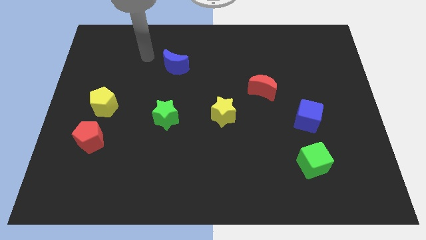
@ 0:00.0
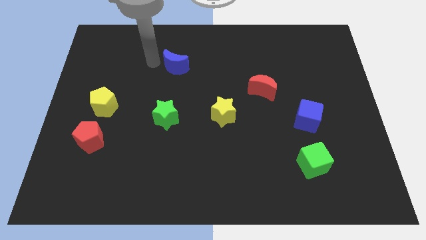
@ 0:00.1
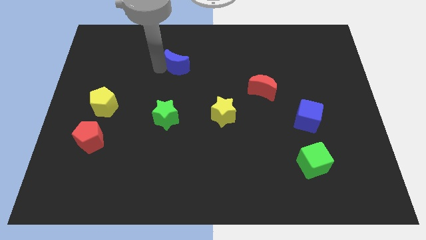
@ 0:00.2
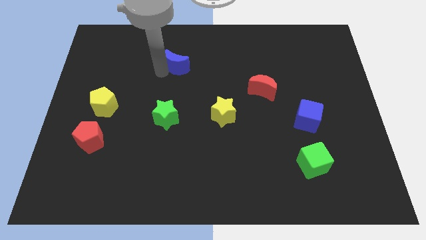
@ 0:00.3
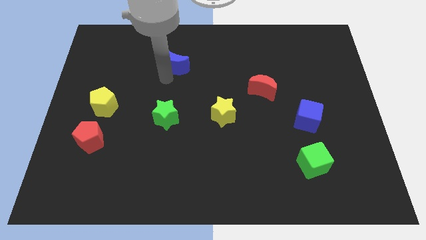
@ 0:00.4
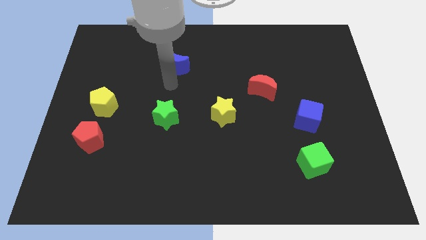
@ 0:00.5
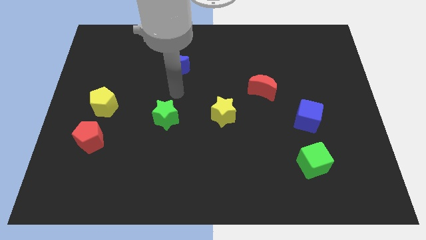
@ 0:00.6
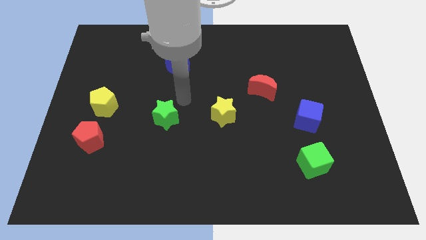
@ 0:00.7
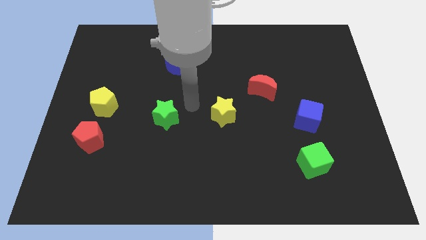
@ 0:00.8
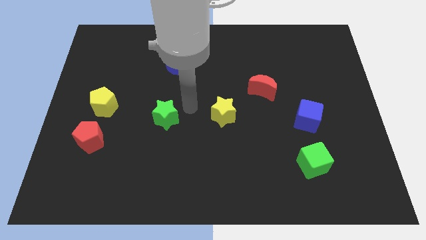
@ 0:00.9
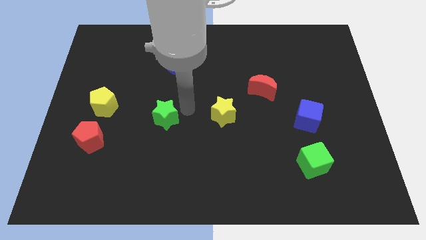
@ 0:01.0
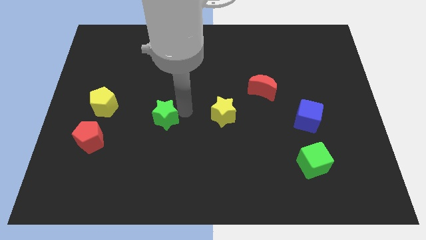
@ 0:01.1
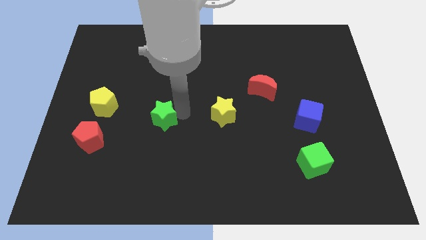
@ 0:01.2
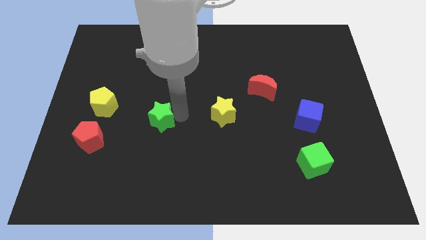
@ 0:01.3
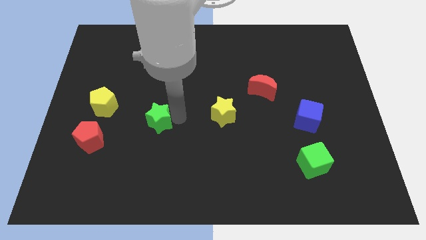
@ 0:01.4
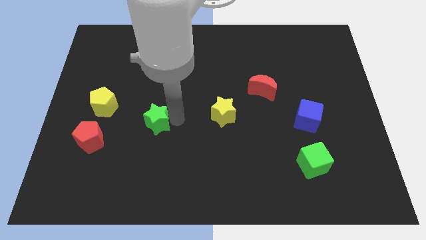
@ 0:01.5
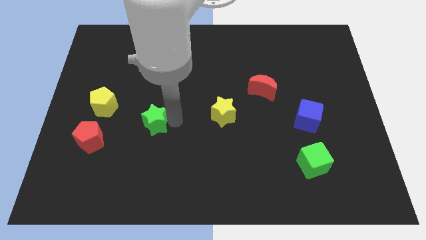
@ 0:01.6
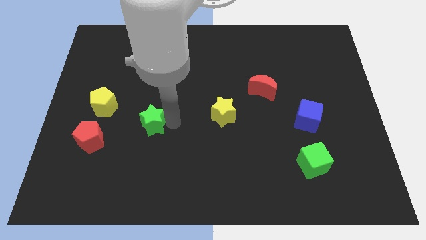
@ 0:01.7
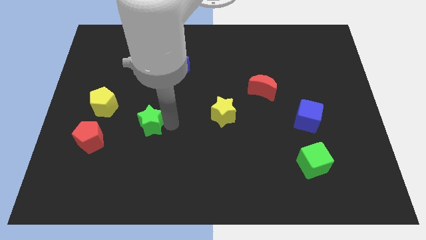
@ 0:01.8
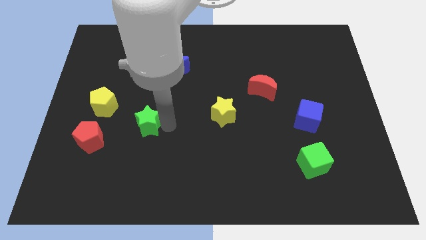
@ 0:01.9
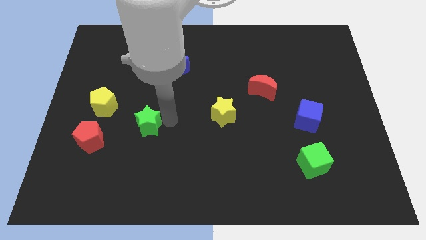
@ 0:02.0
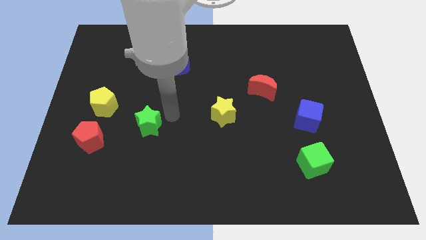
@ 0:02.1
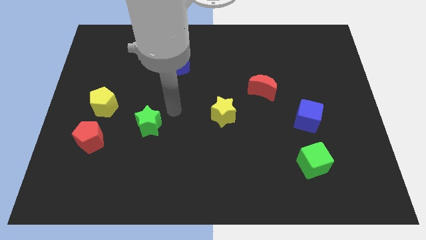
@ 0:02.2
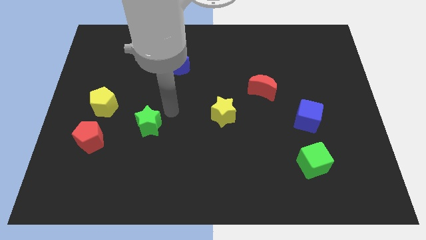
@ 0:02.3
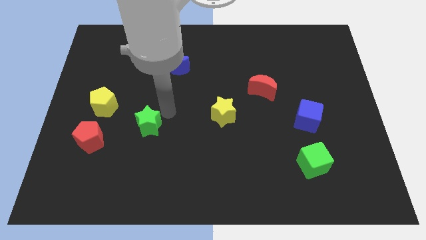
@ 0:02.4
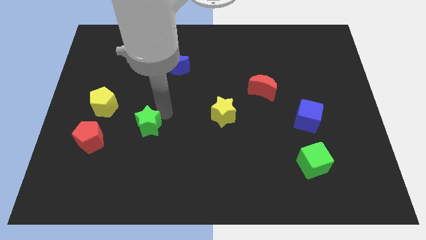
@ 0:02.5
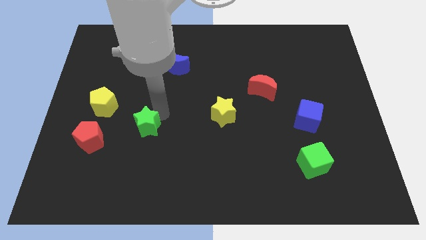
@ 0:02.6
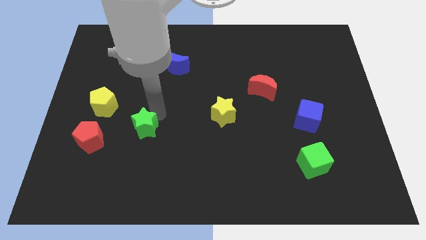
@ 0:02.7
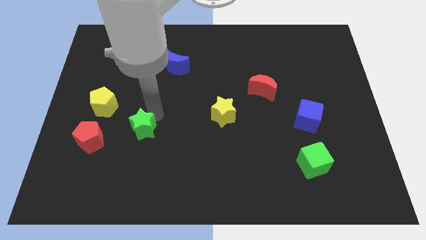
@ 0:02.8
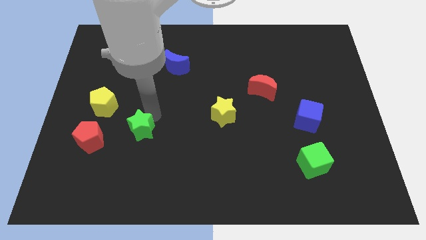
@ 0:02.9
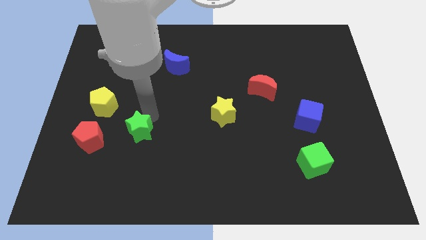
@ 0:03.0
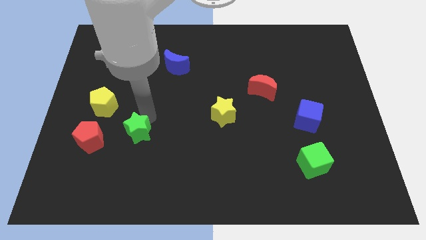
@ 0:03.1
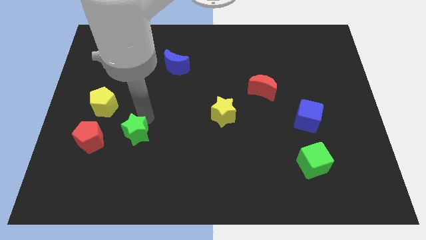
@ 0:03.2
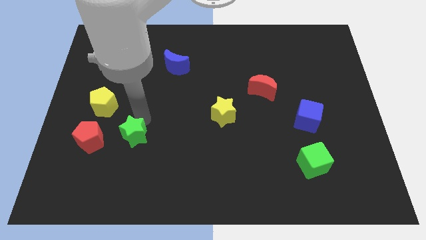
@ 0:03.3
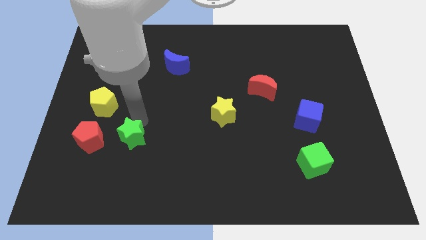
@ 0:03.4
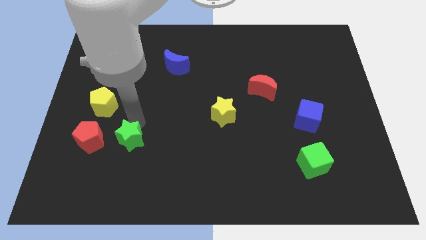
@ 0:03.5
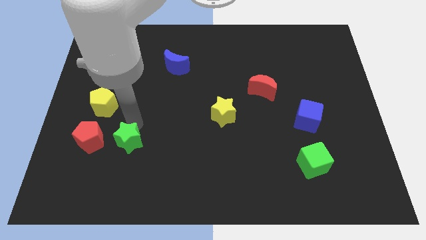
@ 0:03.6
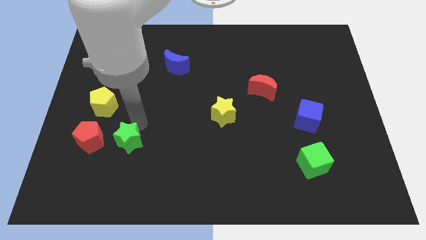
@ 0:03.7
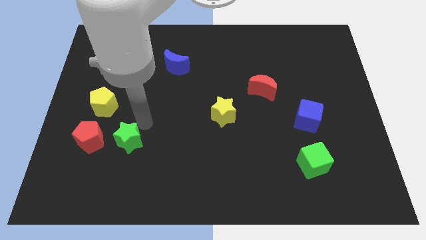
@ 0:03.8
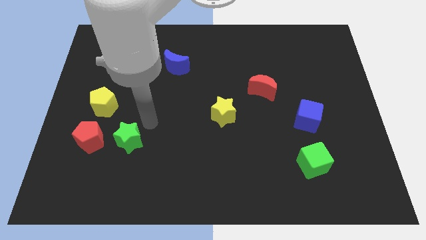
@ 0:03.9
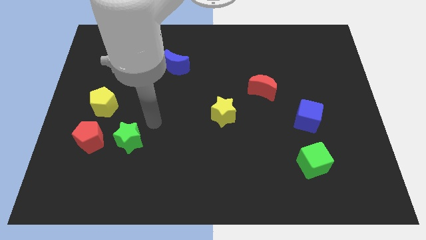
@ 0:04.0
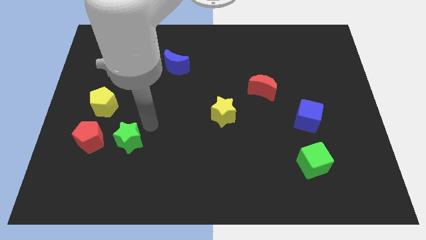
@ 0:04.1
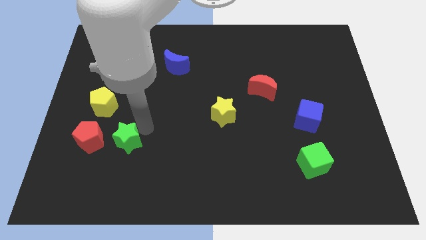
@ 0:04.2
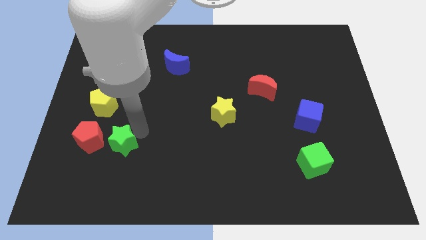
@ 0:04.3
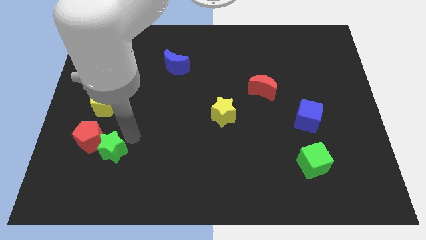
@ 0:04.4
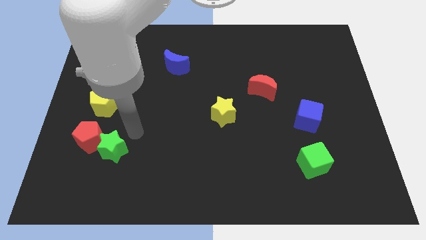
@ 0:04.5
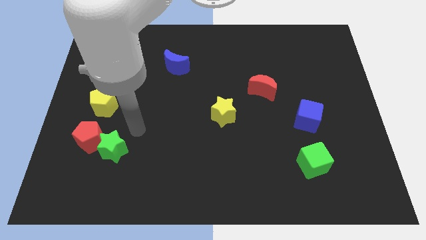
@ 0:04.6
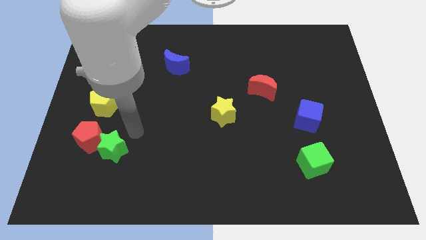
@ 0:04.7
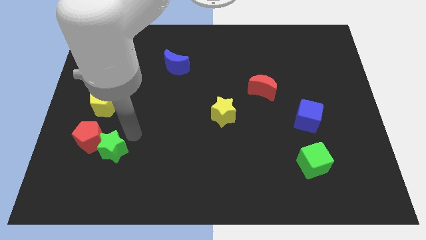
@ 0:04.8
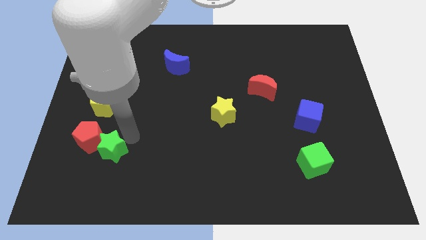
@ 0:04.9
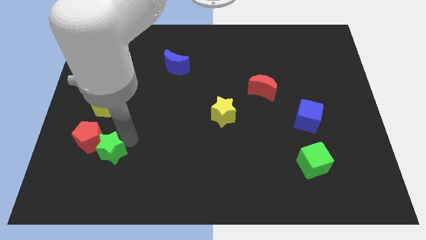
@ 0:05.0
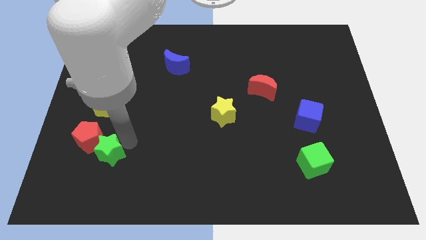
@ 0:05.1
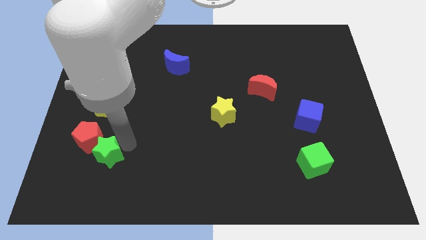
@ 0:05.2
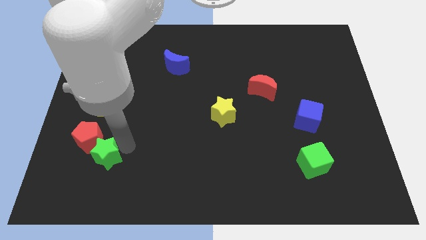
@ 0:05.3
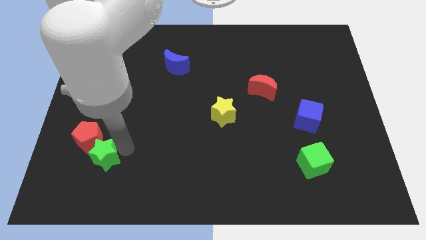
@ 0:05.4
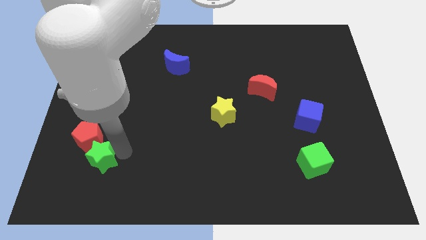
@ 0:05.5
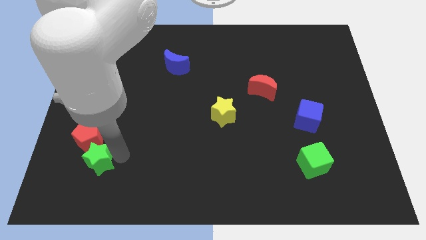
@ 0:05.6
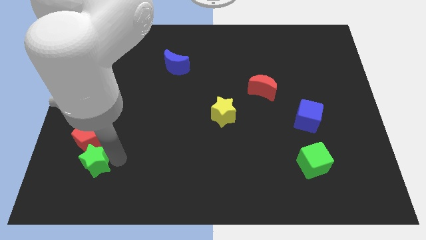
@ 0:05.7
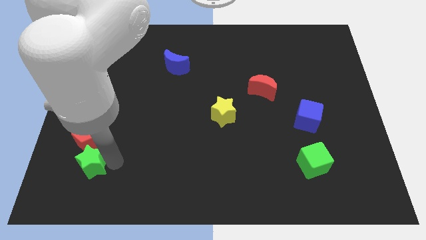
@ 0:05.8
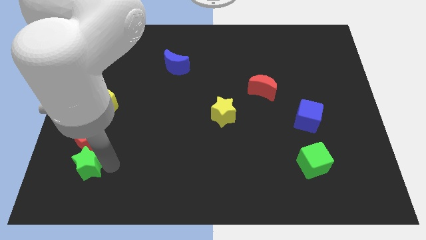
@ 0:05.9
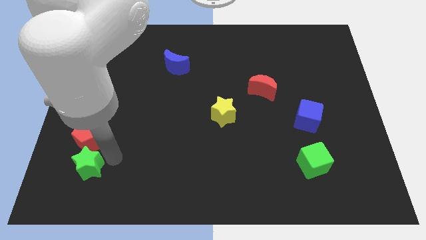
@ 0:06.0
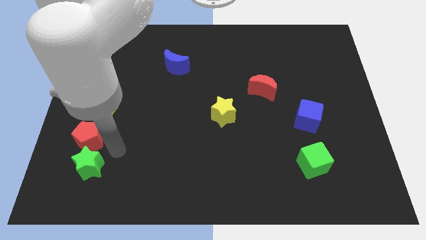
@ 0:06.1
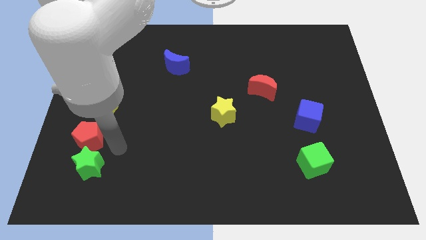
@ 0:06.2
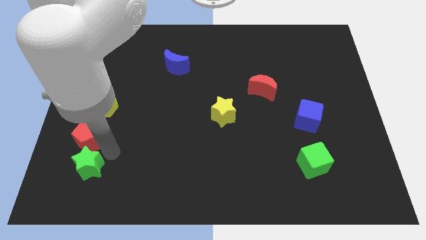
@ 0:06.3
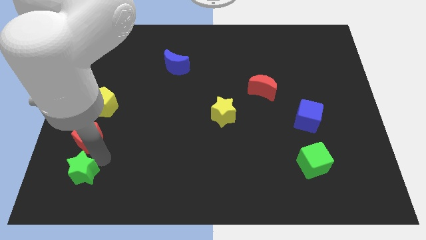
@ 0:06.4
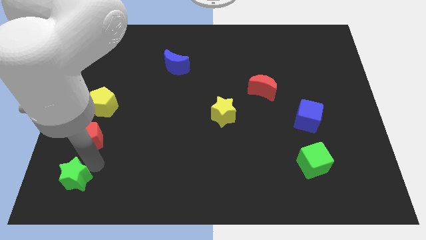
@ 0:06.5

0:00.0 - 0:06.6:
slide the green star to the bottom left corner
